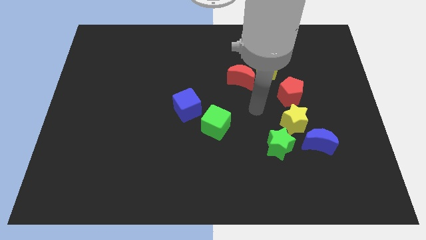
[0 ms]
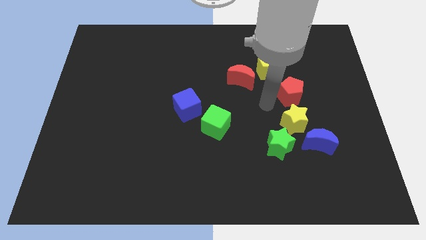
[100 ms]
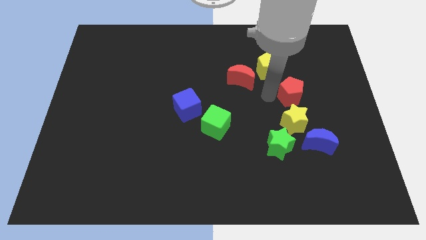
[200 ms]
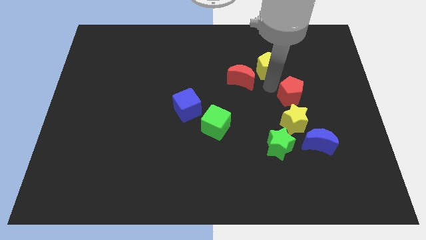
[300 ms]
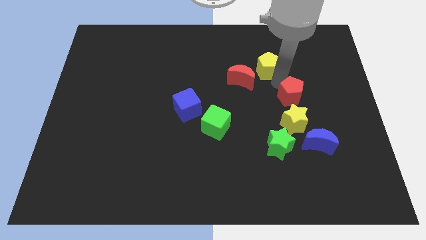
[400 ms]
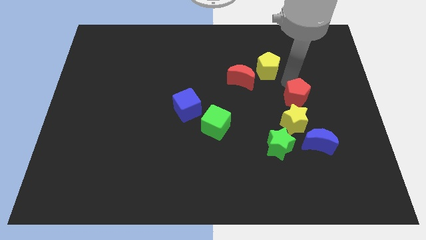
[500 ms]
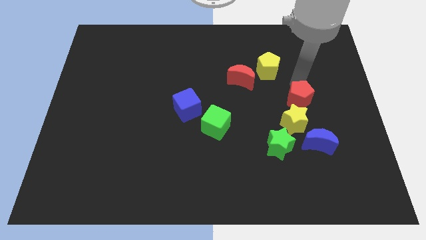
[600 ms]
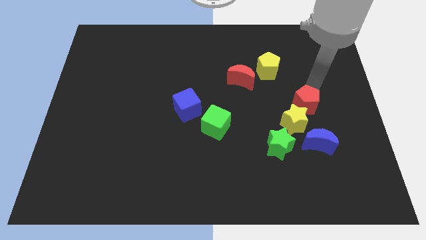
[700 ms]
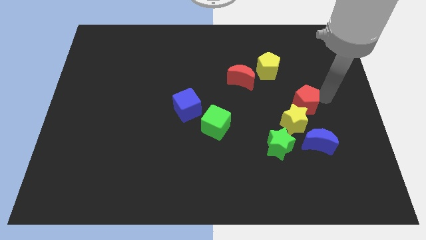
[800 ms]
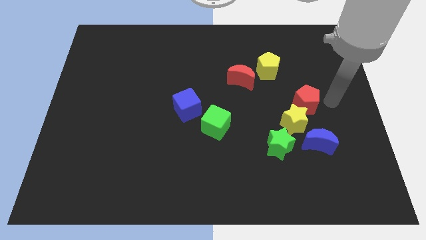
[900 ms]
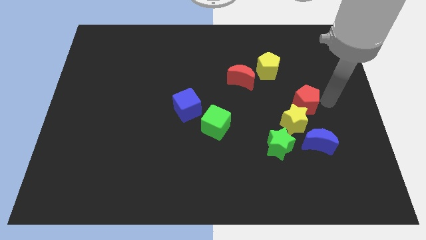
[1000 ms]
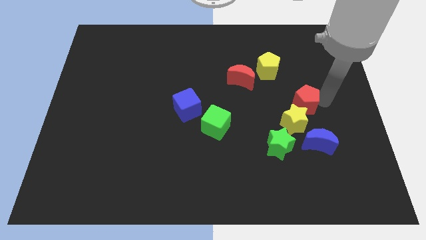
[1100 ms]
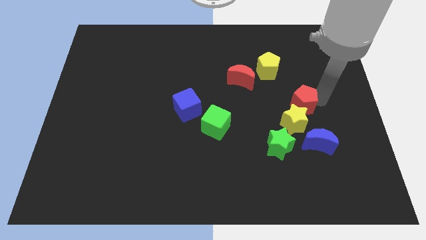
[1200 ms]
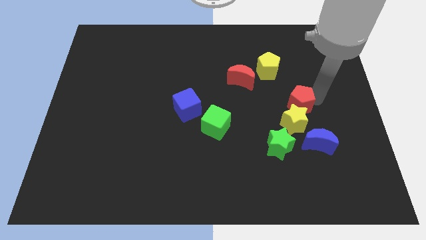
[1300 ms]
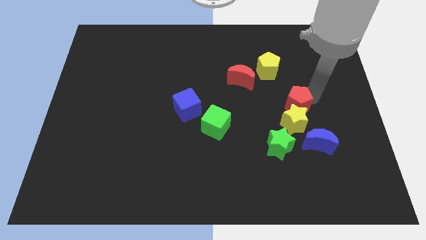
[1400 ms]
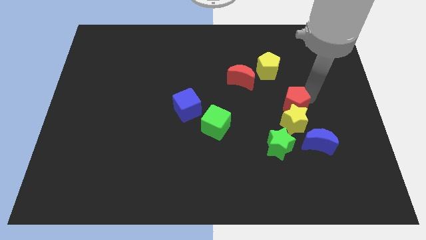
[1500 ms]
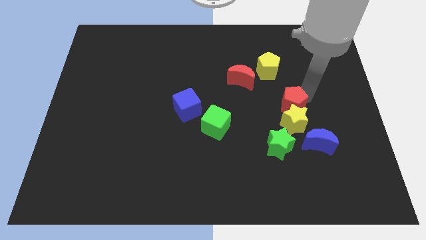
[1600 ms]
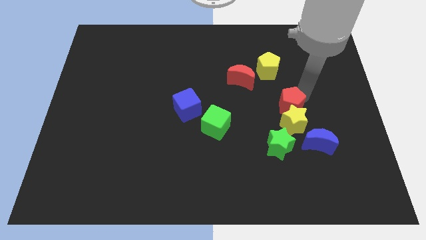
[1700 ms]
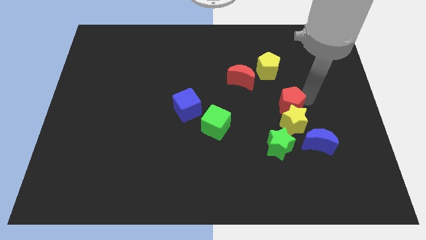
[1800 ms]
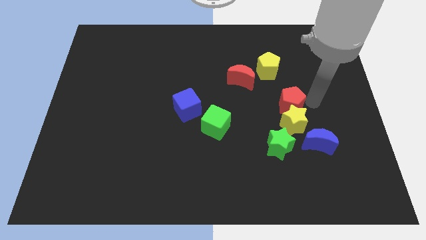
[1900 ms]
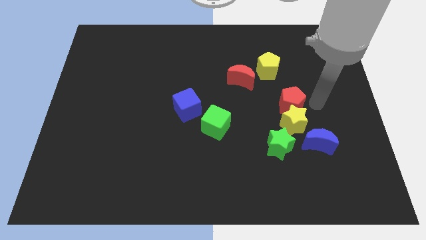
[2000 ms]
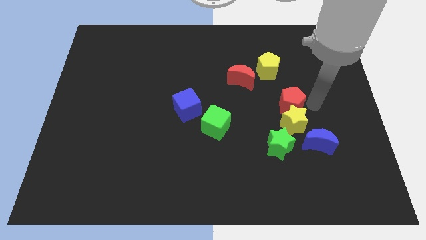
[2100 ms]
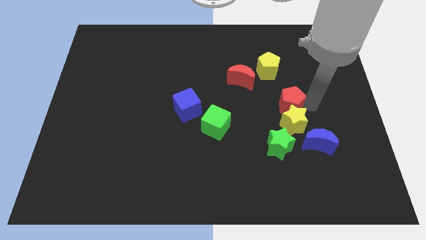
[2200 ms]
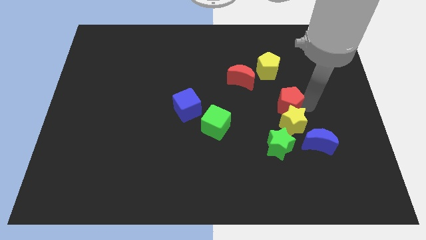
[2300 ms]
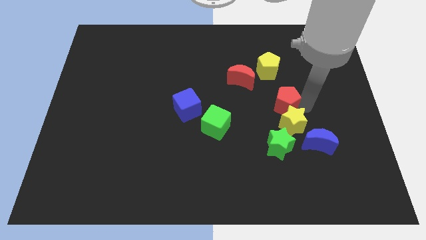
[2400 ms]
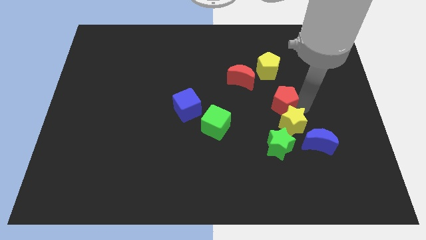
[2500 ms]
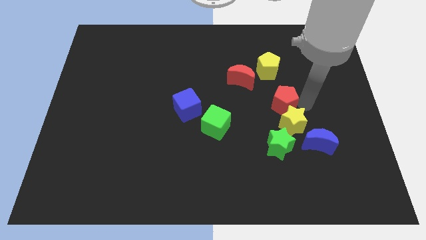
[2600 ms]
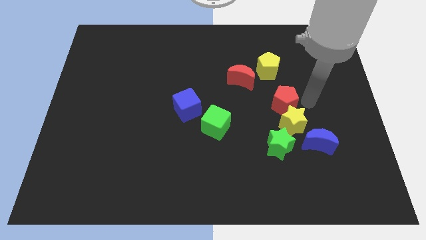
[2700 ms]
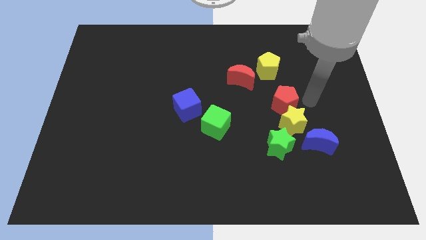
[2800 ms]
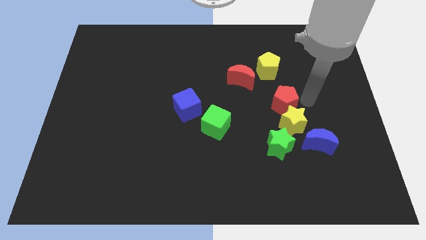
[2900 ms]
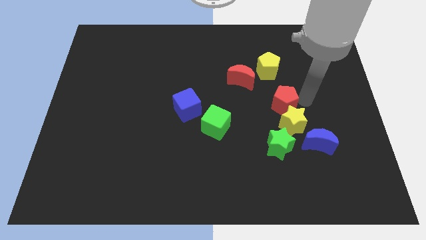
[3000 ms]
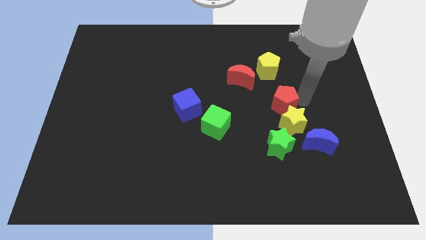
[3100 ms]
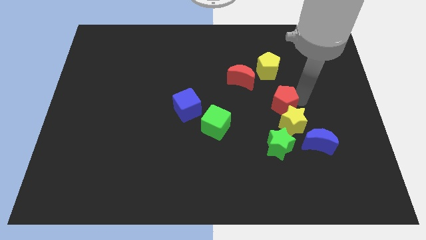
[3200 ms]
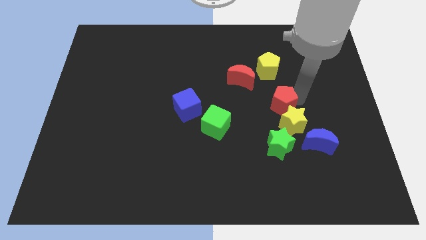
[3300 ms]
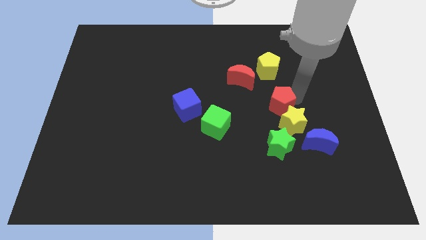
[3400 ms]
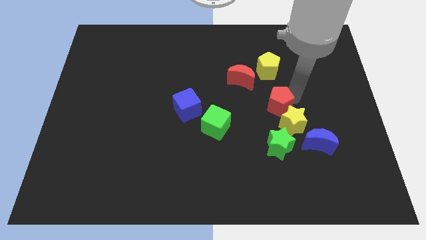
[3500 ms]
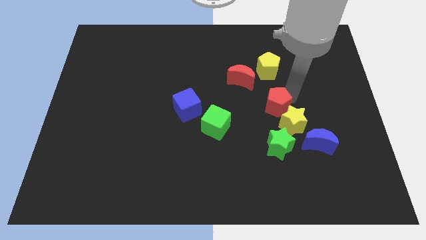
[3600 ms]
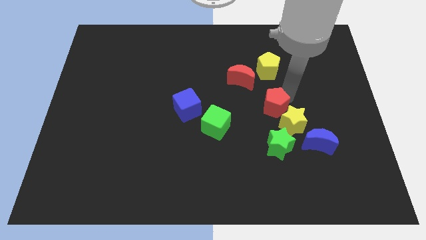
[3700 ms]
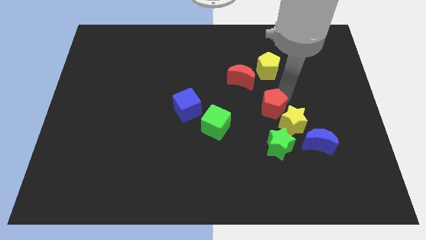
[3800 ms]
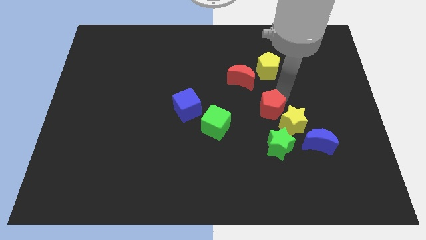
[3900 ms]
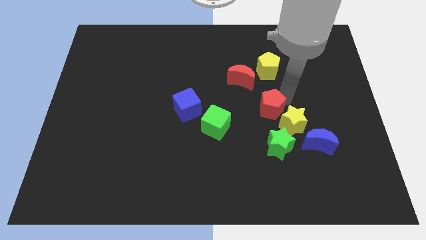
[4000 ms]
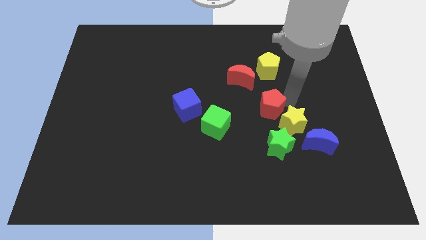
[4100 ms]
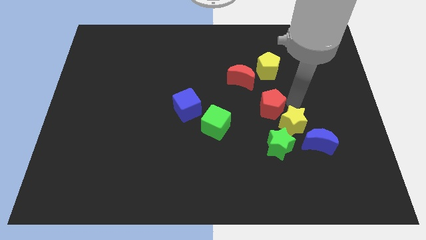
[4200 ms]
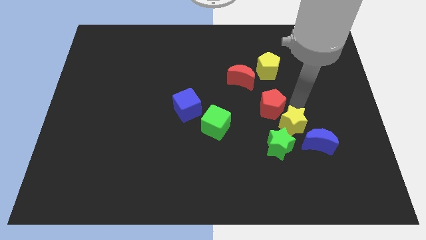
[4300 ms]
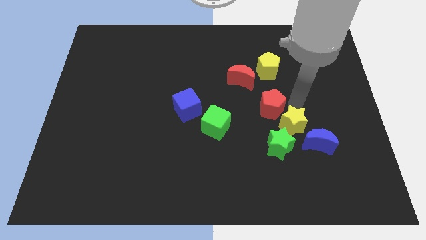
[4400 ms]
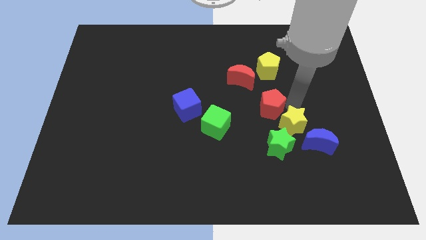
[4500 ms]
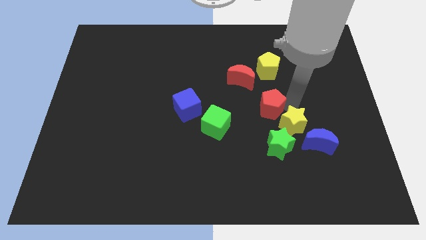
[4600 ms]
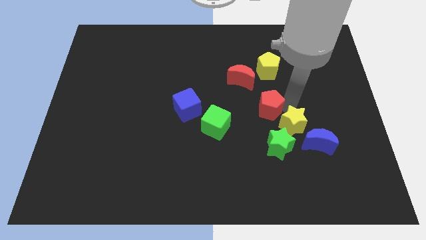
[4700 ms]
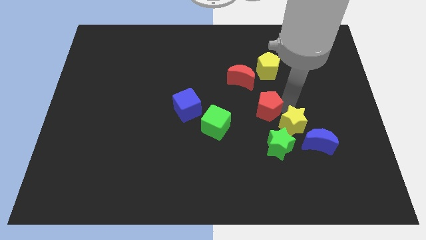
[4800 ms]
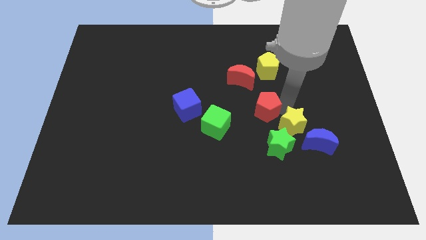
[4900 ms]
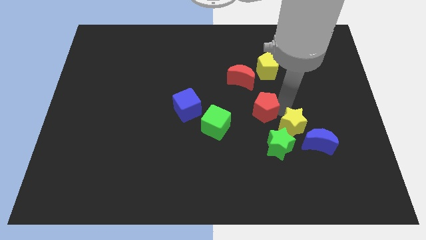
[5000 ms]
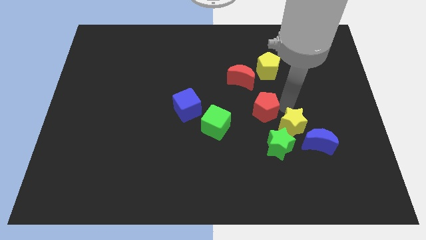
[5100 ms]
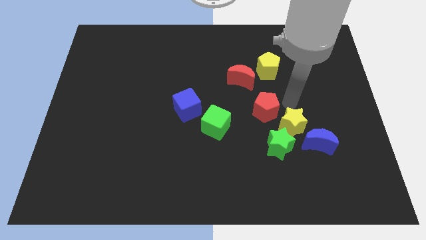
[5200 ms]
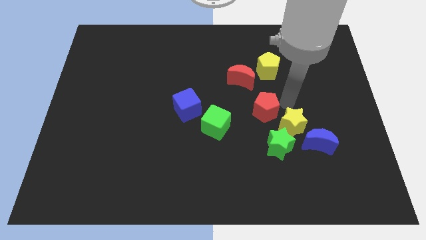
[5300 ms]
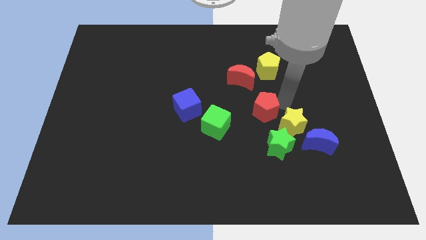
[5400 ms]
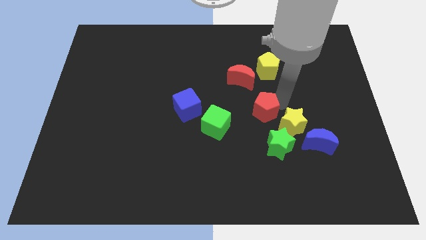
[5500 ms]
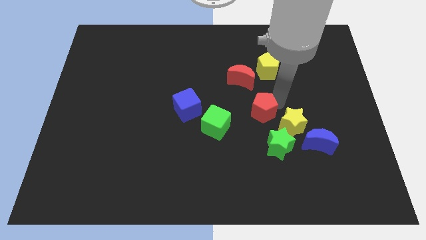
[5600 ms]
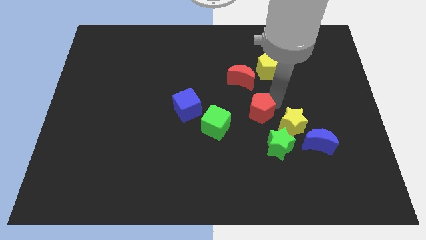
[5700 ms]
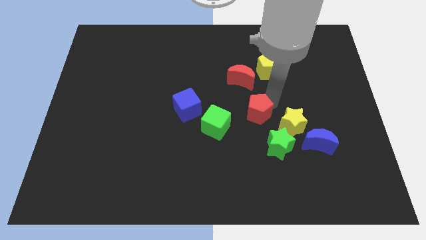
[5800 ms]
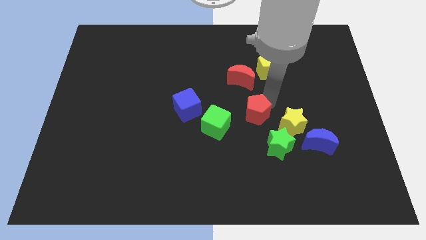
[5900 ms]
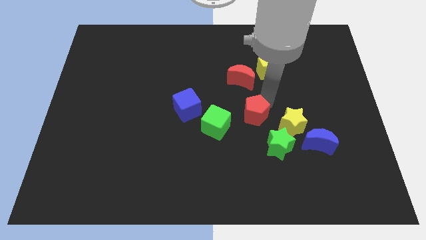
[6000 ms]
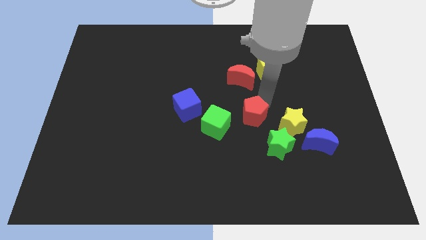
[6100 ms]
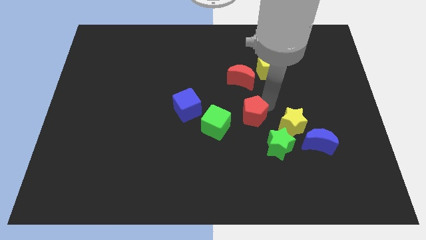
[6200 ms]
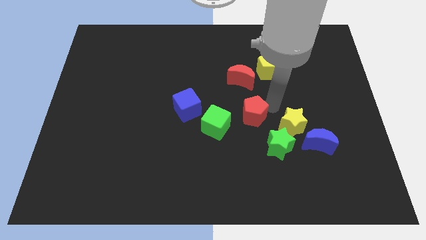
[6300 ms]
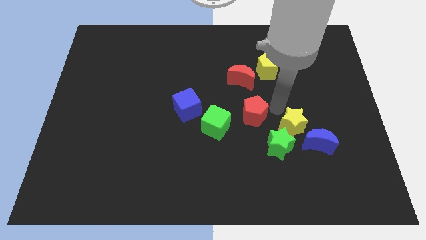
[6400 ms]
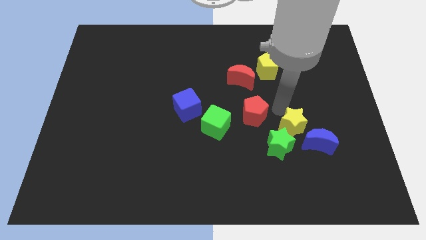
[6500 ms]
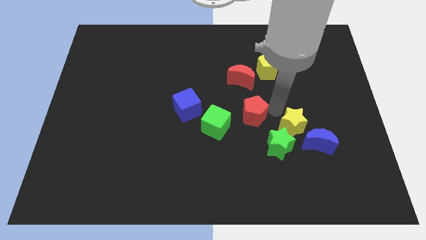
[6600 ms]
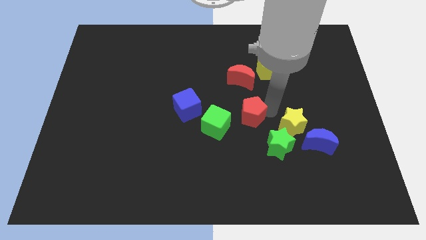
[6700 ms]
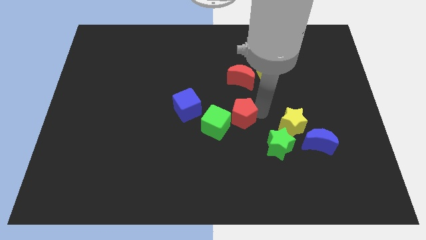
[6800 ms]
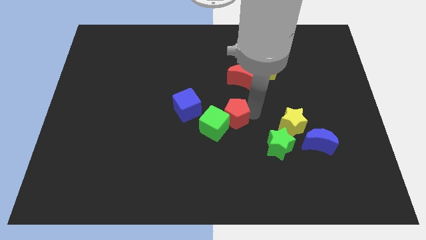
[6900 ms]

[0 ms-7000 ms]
push the red pentagon next to the green cube

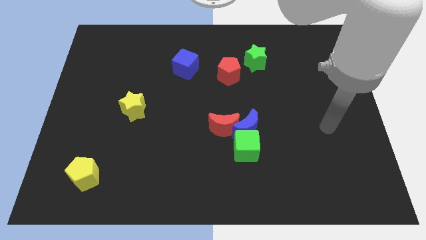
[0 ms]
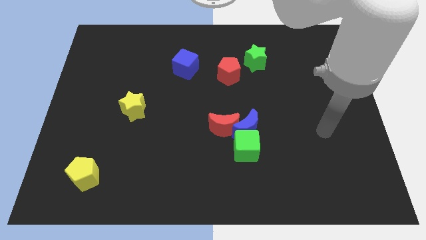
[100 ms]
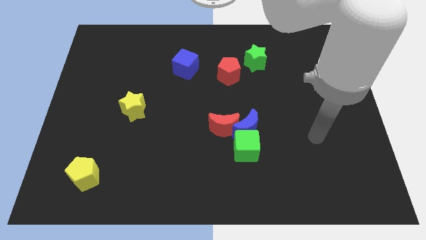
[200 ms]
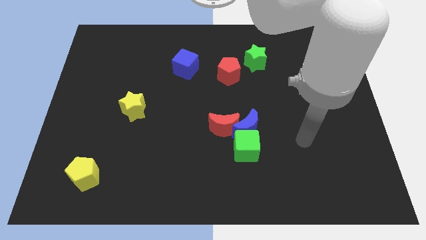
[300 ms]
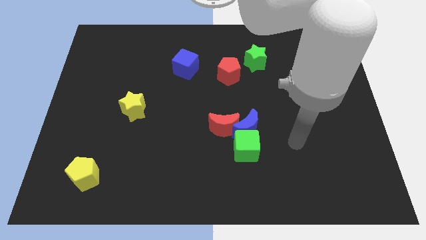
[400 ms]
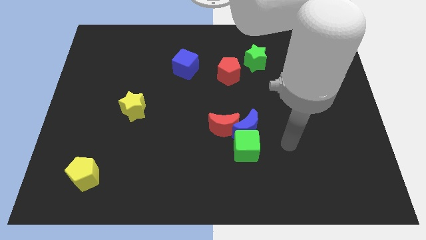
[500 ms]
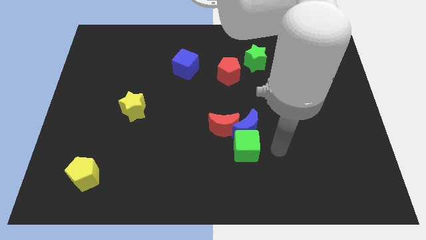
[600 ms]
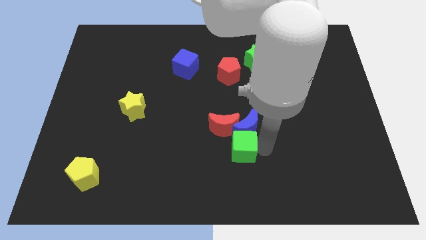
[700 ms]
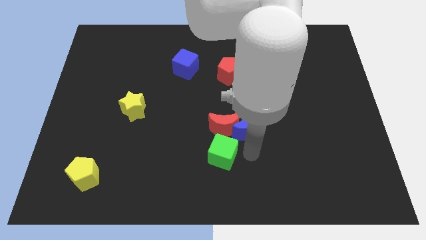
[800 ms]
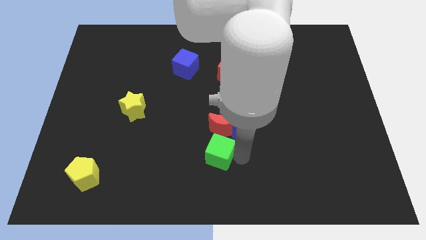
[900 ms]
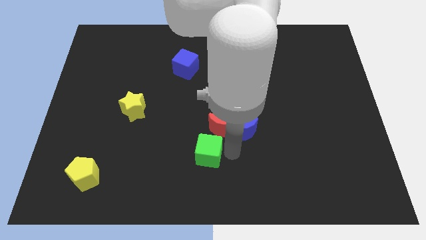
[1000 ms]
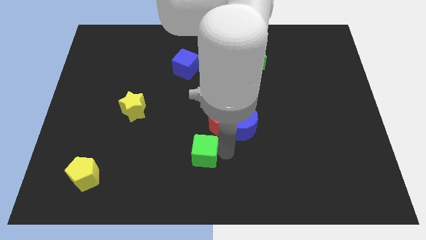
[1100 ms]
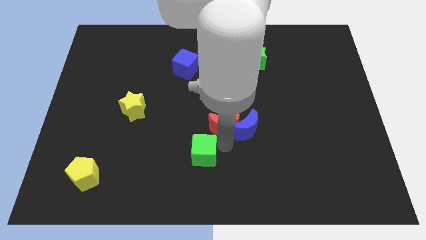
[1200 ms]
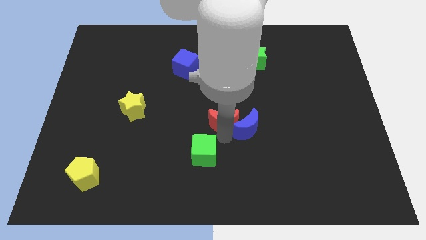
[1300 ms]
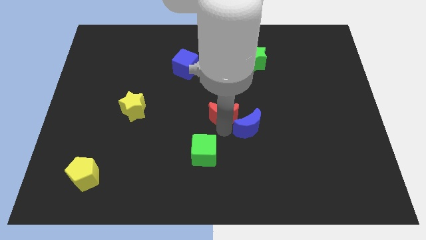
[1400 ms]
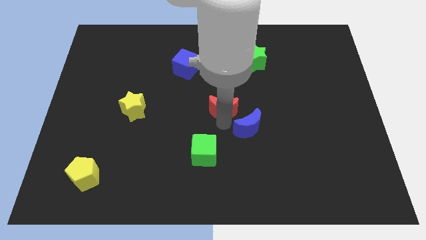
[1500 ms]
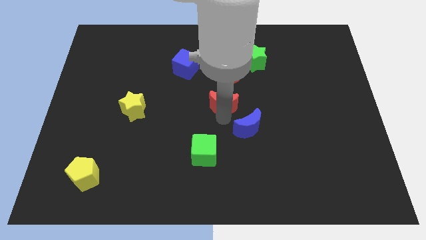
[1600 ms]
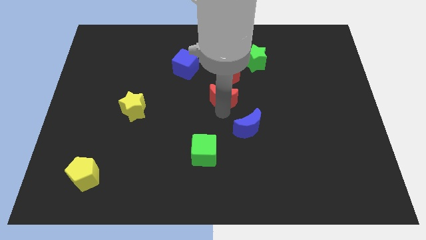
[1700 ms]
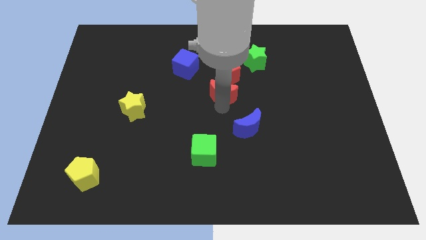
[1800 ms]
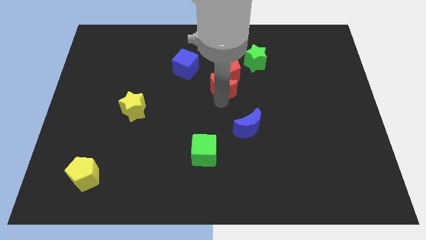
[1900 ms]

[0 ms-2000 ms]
push the red moon close to the red pentagon
